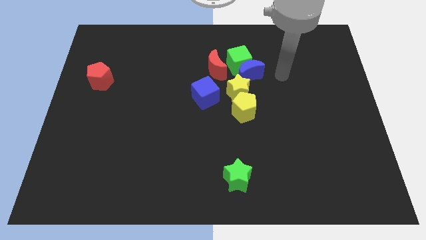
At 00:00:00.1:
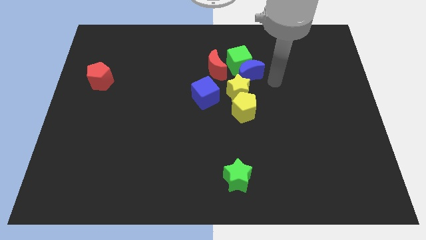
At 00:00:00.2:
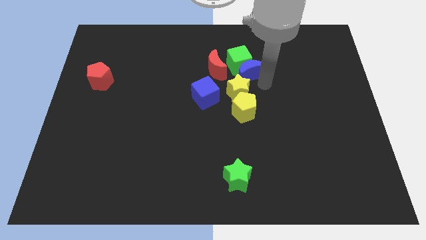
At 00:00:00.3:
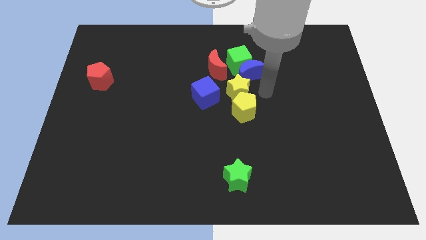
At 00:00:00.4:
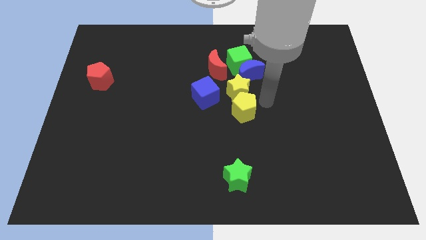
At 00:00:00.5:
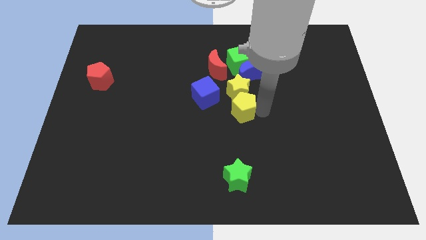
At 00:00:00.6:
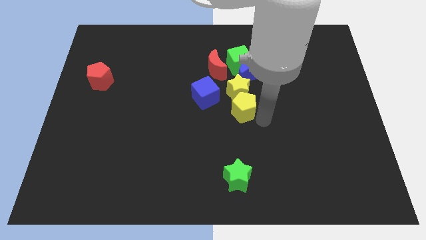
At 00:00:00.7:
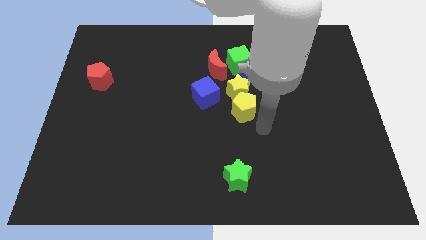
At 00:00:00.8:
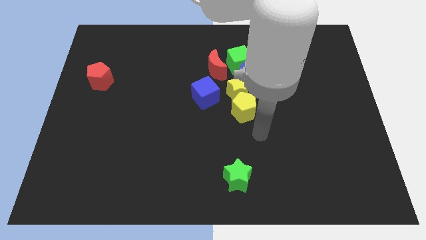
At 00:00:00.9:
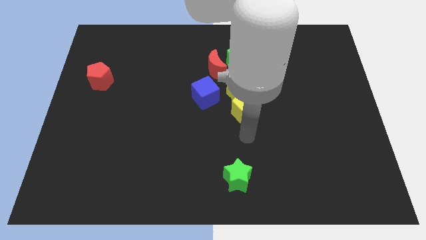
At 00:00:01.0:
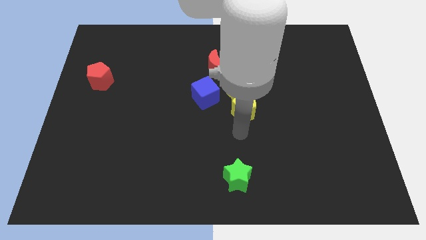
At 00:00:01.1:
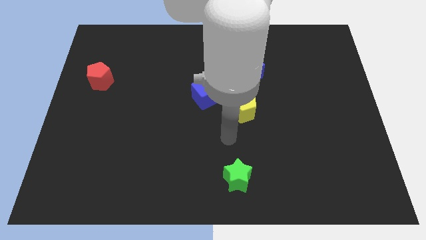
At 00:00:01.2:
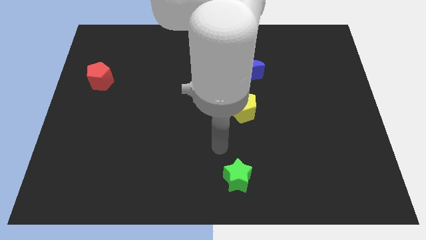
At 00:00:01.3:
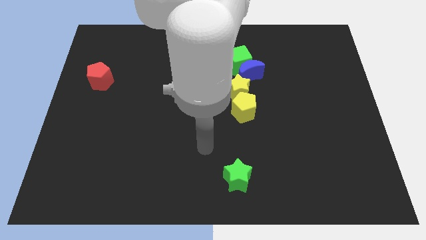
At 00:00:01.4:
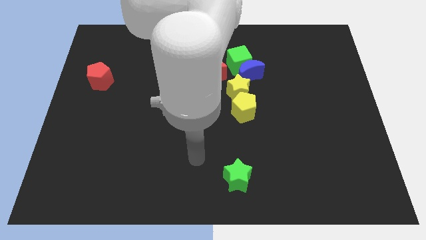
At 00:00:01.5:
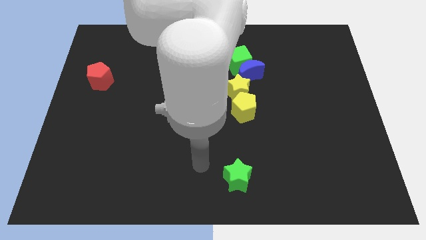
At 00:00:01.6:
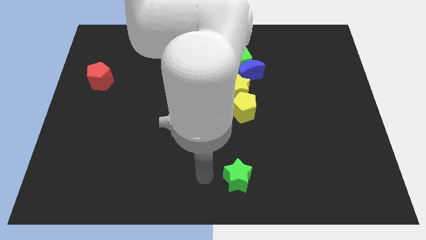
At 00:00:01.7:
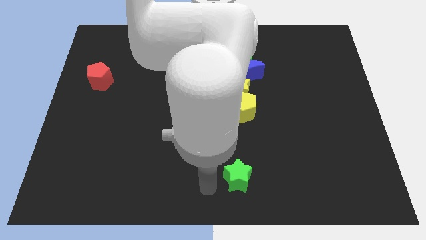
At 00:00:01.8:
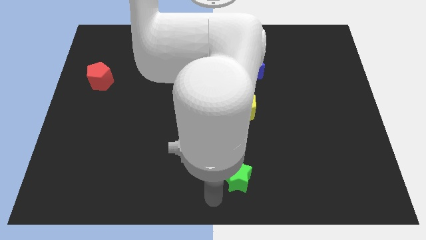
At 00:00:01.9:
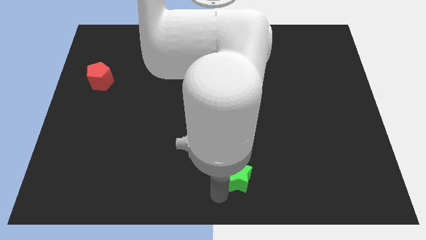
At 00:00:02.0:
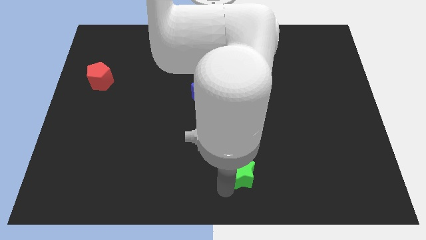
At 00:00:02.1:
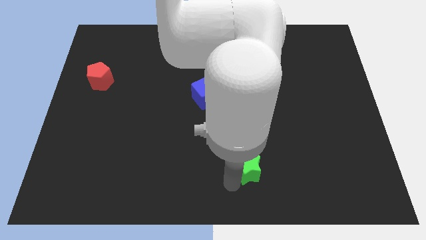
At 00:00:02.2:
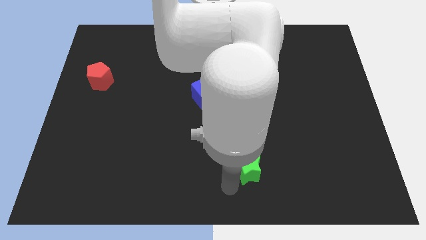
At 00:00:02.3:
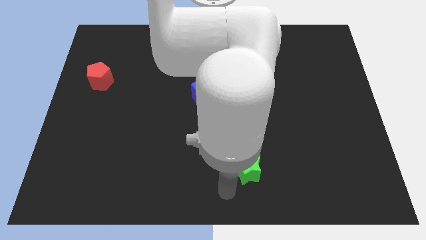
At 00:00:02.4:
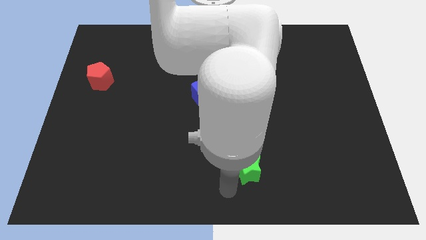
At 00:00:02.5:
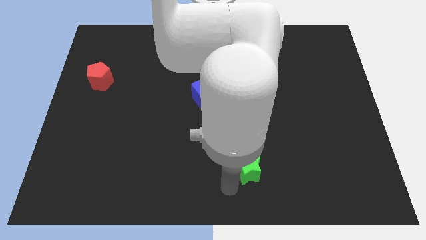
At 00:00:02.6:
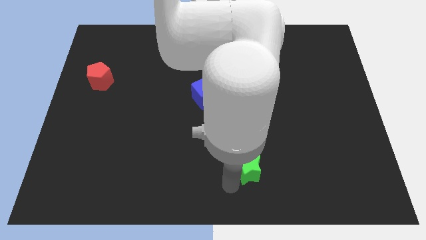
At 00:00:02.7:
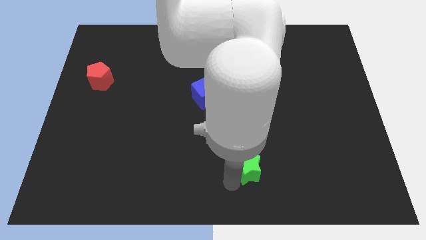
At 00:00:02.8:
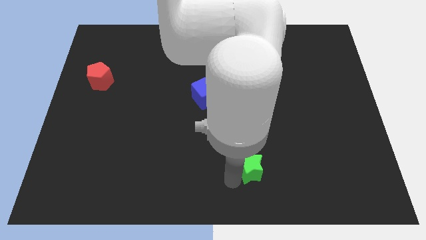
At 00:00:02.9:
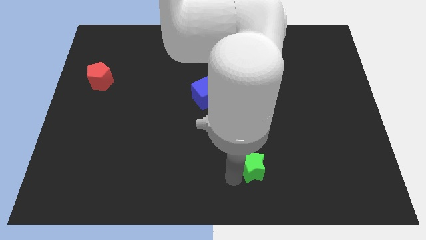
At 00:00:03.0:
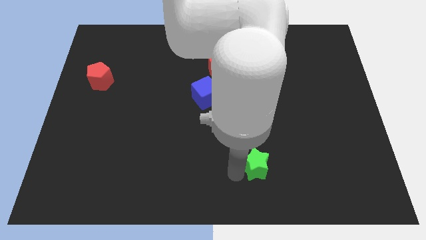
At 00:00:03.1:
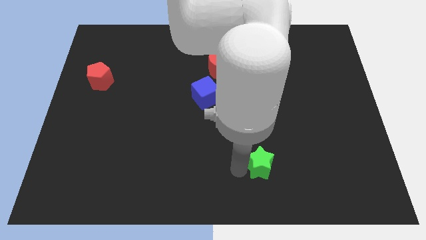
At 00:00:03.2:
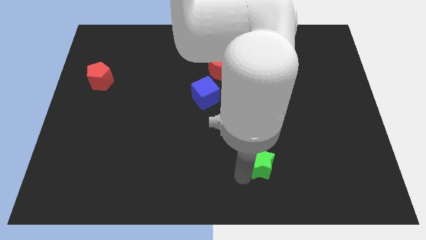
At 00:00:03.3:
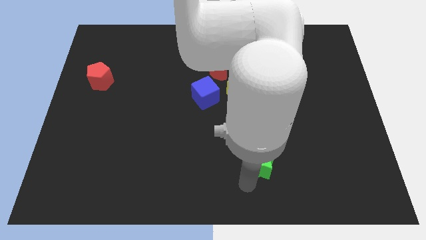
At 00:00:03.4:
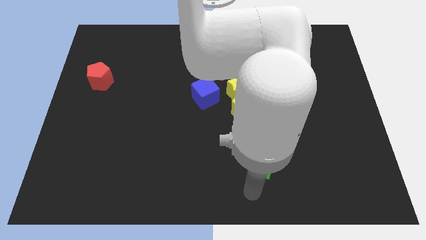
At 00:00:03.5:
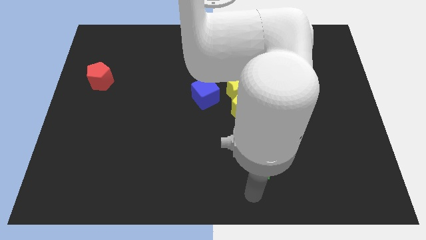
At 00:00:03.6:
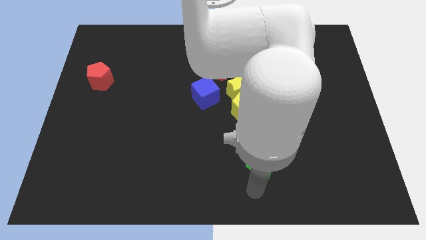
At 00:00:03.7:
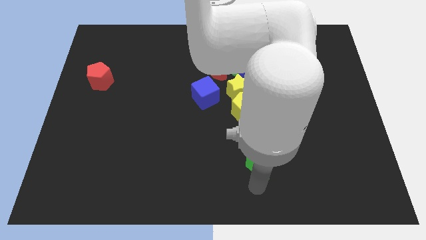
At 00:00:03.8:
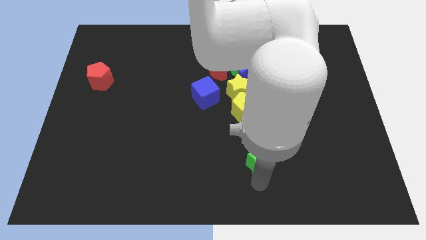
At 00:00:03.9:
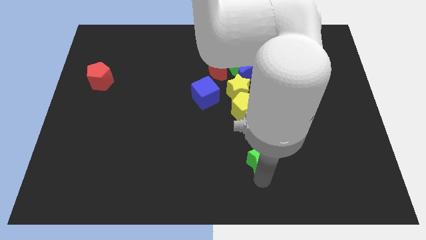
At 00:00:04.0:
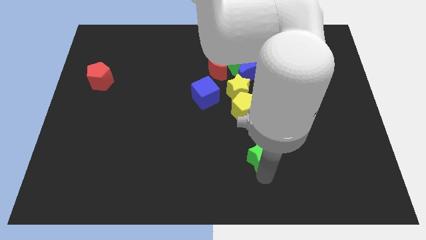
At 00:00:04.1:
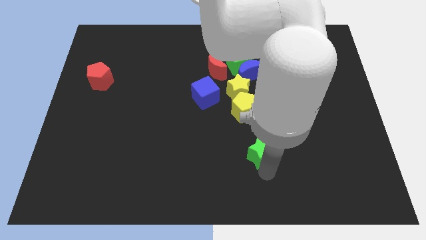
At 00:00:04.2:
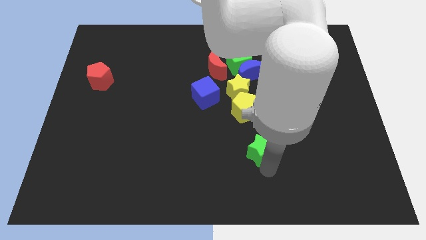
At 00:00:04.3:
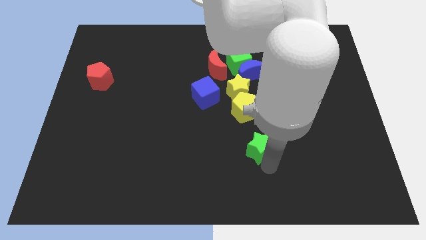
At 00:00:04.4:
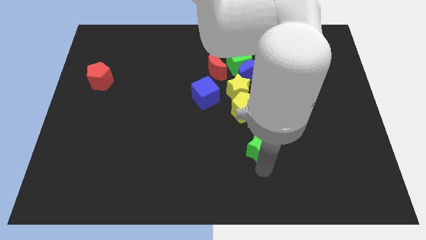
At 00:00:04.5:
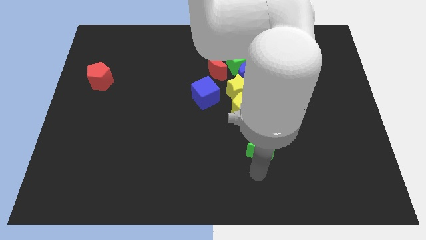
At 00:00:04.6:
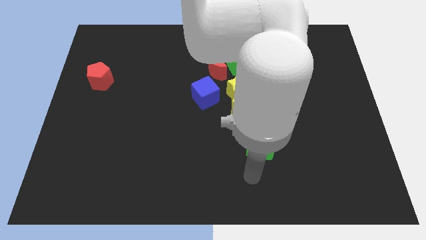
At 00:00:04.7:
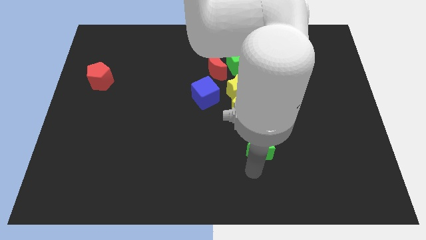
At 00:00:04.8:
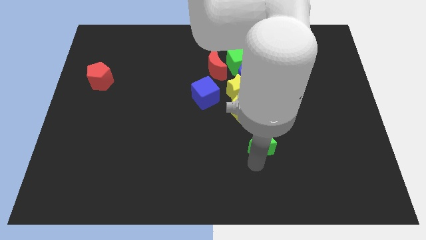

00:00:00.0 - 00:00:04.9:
move the green star to the bottom right side of the yellow pentagon

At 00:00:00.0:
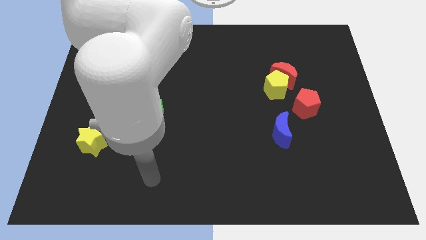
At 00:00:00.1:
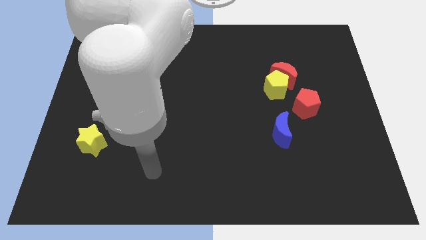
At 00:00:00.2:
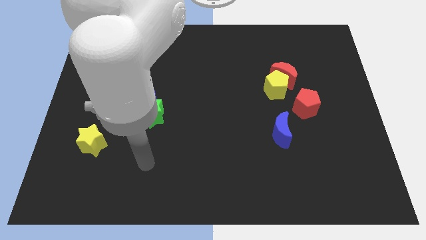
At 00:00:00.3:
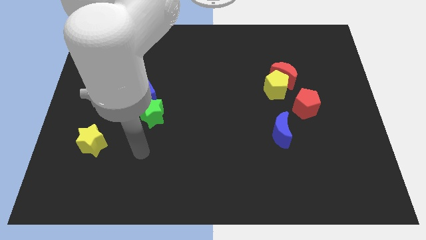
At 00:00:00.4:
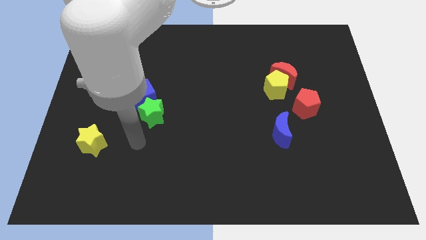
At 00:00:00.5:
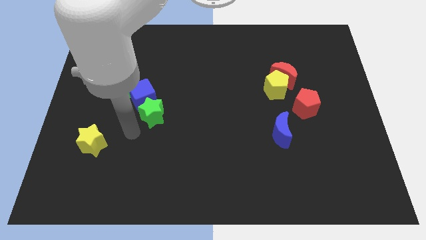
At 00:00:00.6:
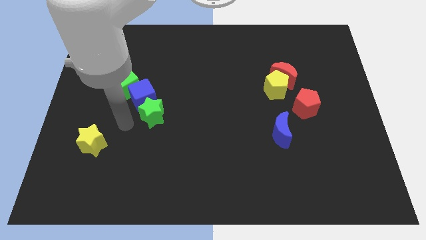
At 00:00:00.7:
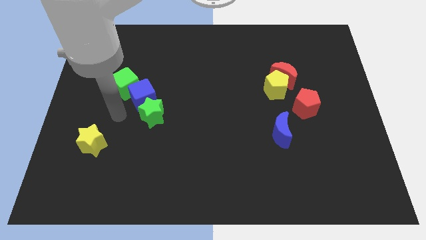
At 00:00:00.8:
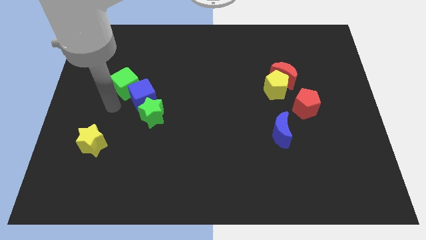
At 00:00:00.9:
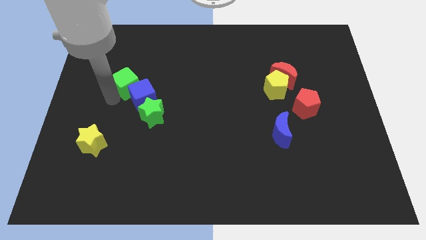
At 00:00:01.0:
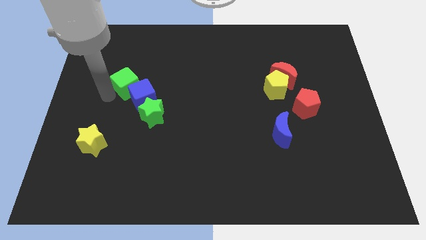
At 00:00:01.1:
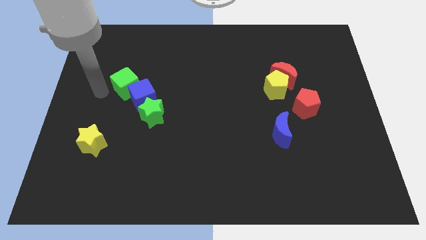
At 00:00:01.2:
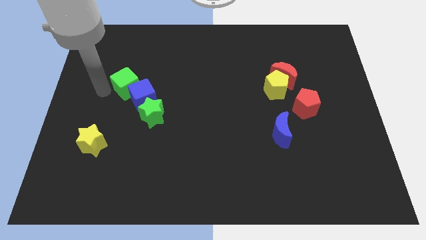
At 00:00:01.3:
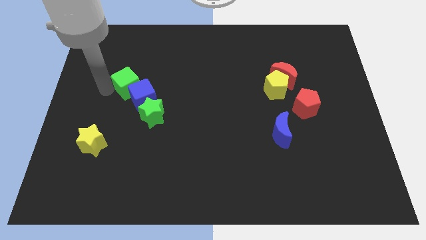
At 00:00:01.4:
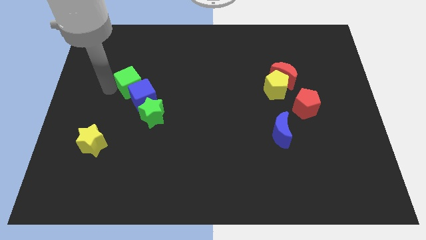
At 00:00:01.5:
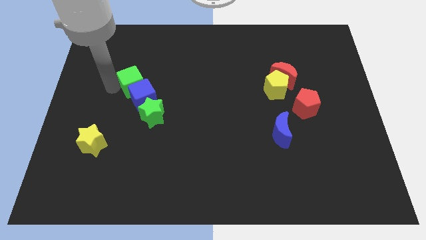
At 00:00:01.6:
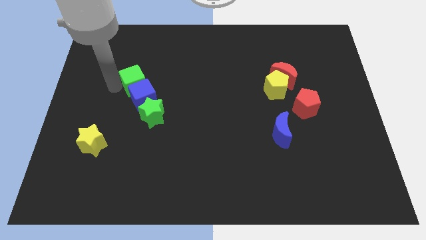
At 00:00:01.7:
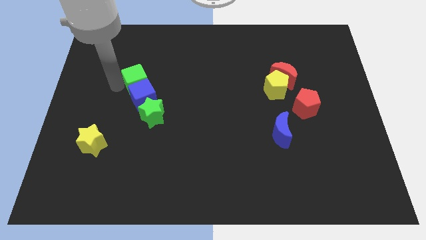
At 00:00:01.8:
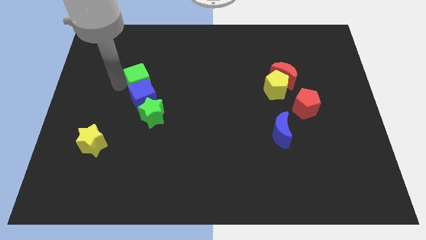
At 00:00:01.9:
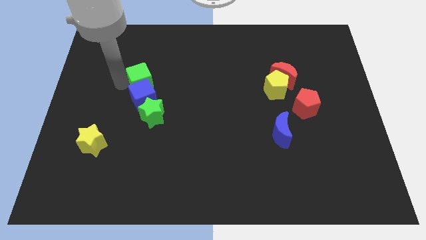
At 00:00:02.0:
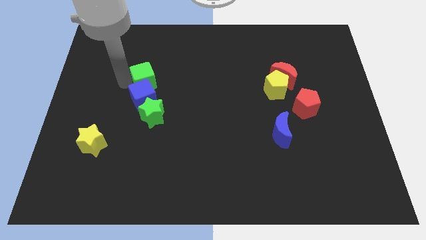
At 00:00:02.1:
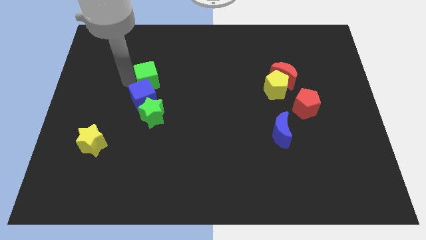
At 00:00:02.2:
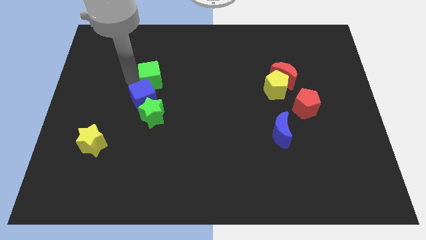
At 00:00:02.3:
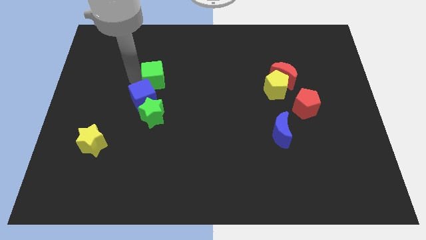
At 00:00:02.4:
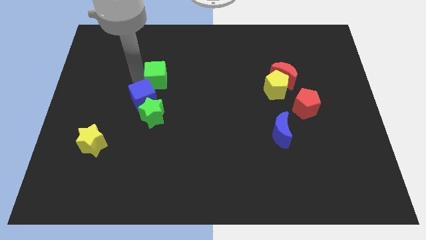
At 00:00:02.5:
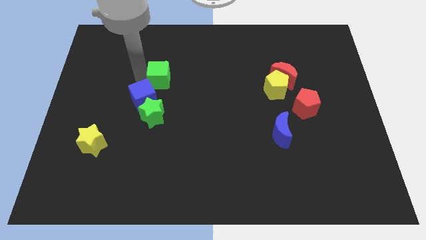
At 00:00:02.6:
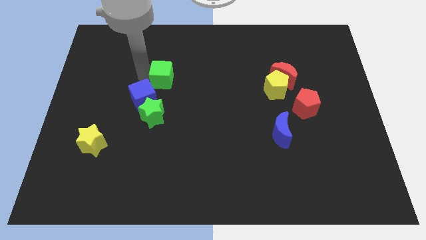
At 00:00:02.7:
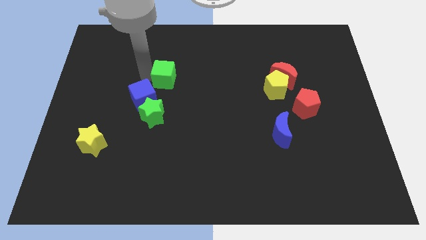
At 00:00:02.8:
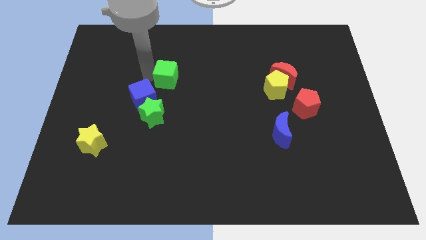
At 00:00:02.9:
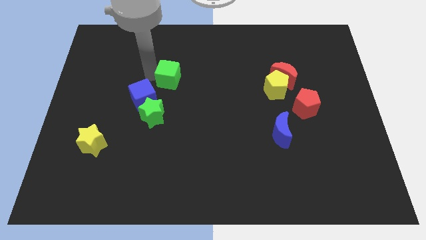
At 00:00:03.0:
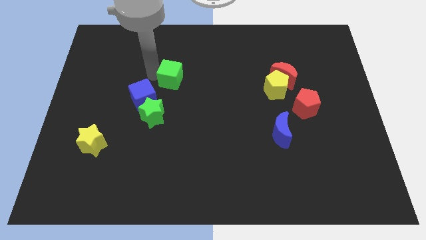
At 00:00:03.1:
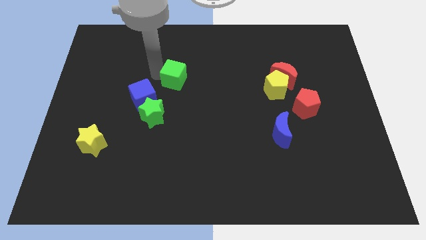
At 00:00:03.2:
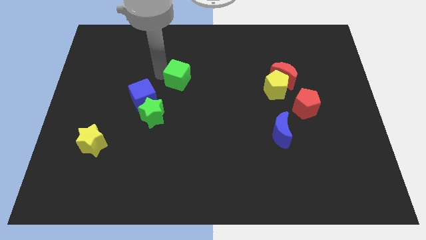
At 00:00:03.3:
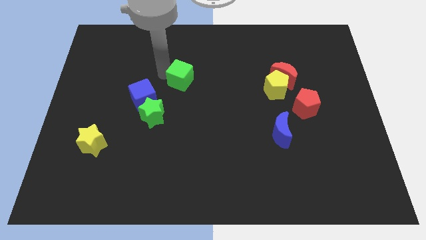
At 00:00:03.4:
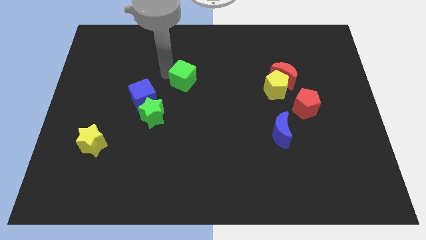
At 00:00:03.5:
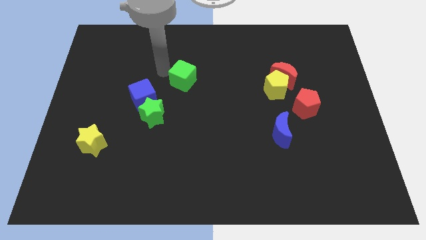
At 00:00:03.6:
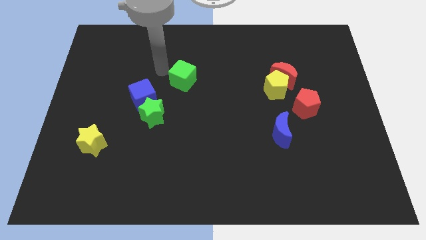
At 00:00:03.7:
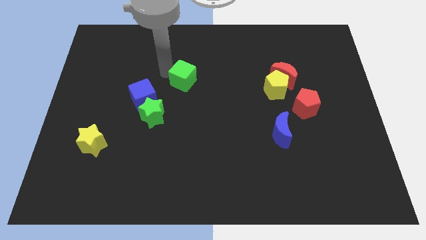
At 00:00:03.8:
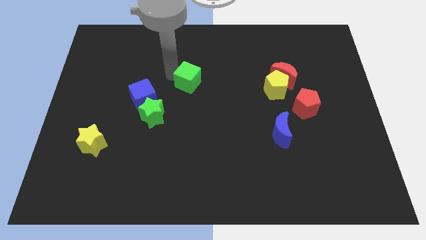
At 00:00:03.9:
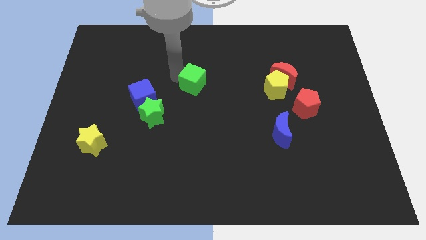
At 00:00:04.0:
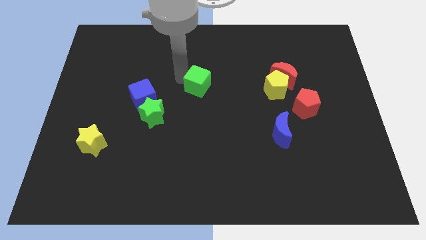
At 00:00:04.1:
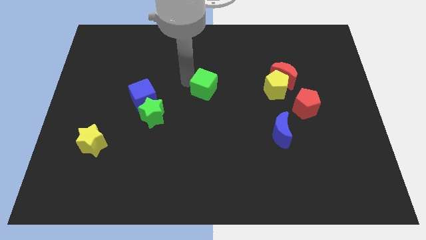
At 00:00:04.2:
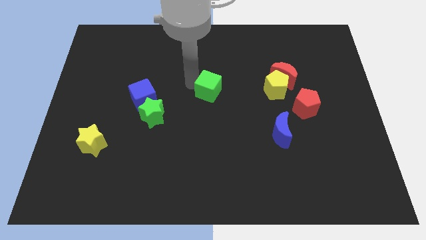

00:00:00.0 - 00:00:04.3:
slide the green cube just left of the yellow pentagon
